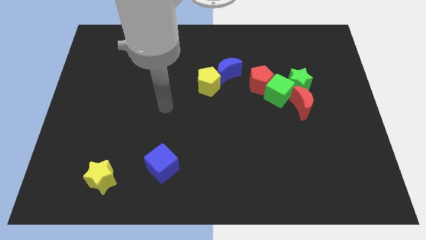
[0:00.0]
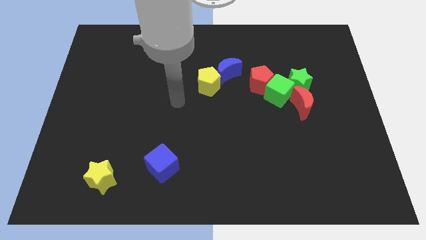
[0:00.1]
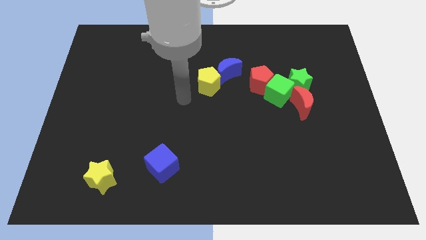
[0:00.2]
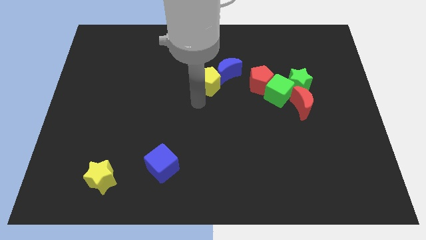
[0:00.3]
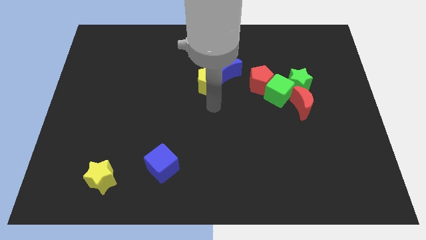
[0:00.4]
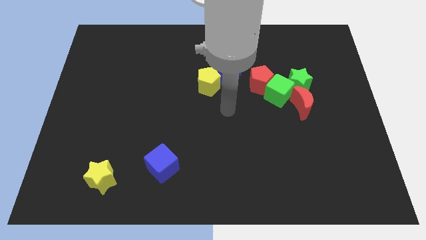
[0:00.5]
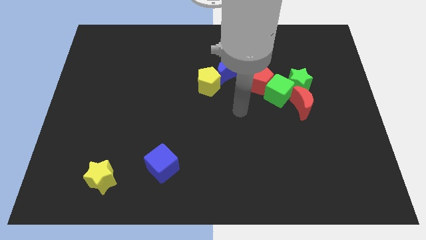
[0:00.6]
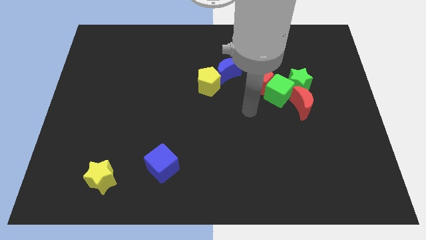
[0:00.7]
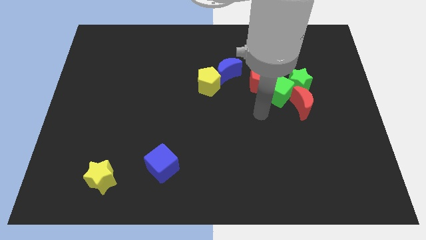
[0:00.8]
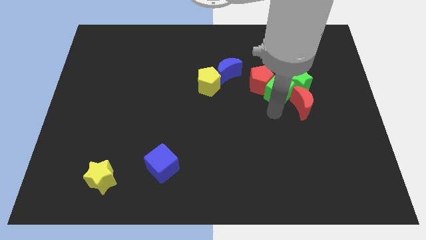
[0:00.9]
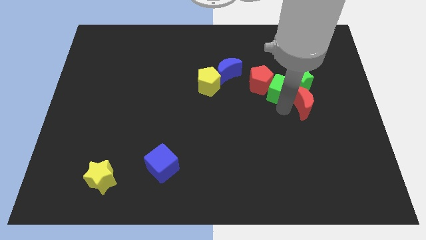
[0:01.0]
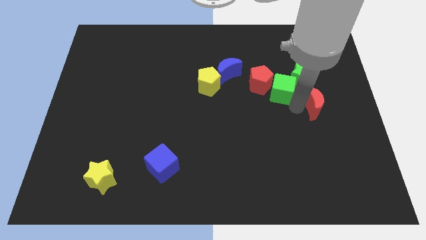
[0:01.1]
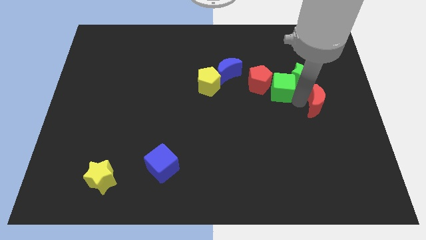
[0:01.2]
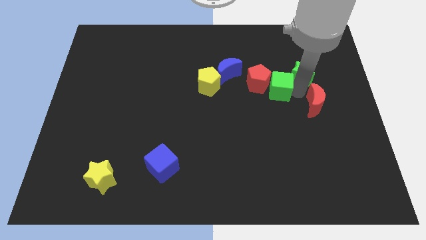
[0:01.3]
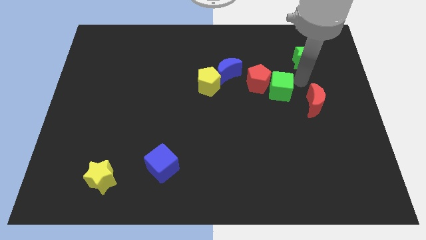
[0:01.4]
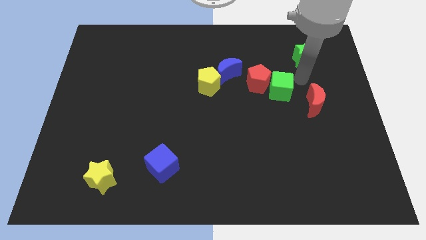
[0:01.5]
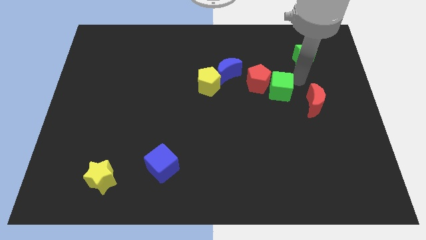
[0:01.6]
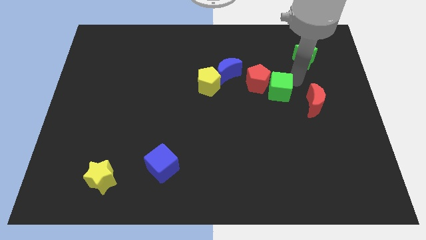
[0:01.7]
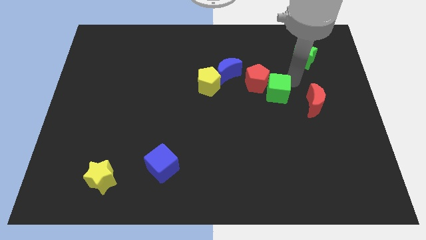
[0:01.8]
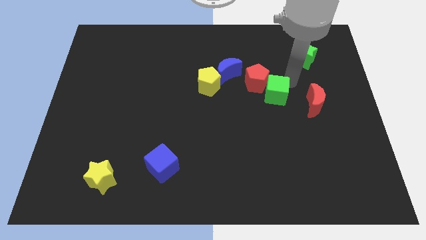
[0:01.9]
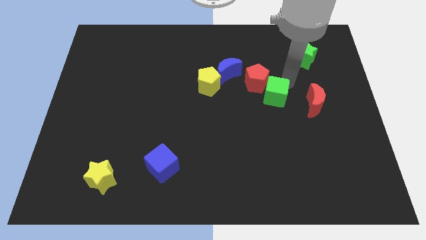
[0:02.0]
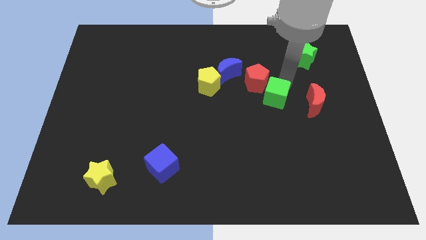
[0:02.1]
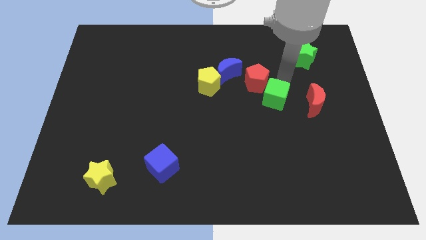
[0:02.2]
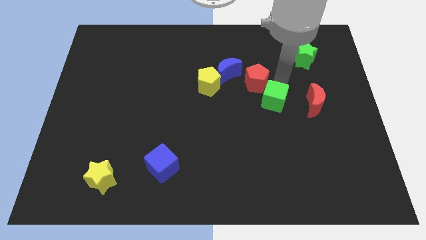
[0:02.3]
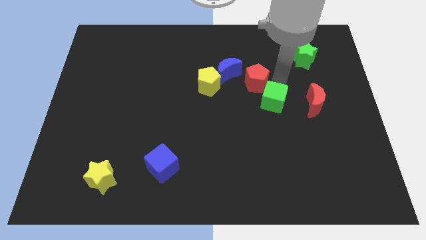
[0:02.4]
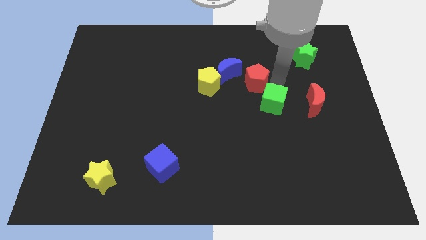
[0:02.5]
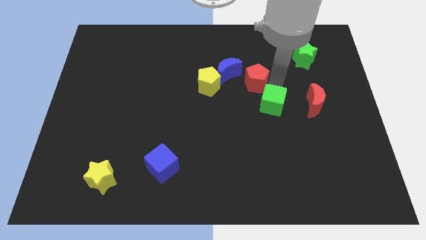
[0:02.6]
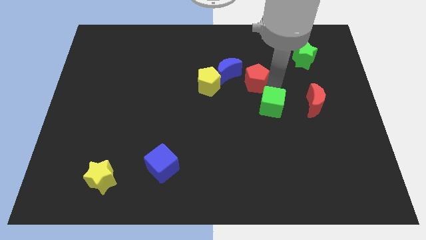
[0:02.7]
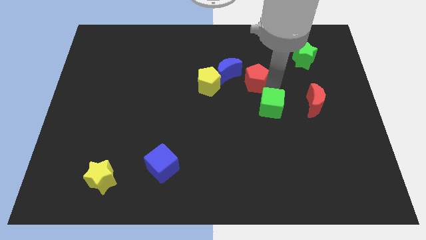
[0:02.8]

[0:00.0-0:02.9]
separate the green cube from the red pentagon, green star, and red moon

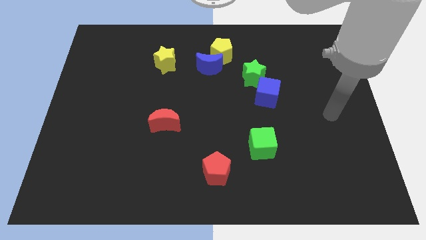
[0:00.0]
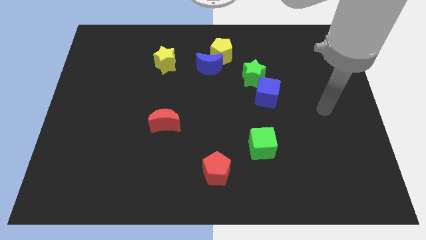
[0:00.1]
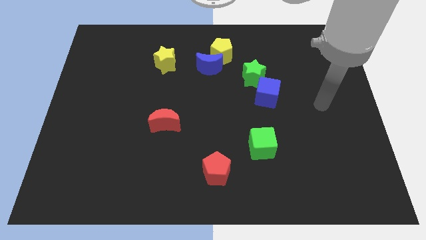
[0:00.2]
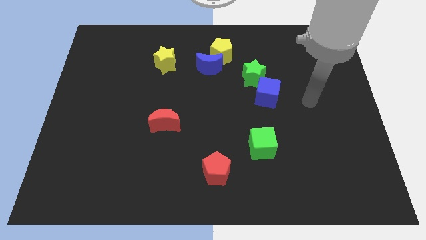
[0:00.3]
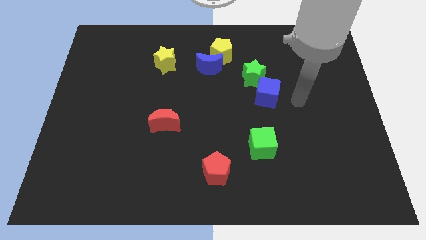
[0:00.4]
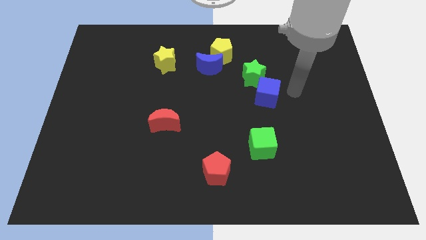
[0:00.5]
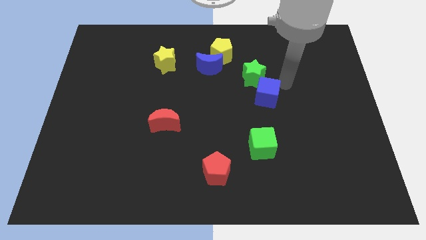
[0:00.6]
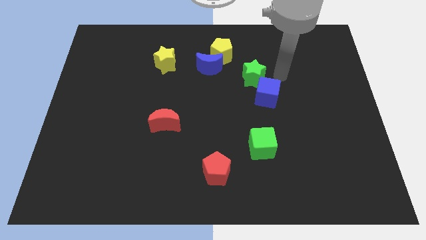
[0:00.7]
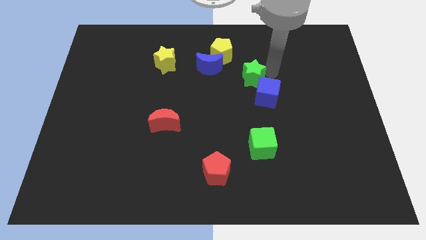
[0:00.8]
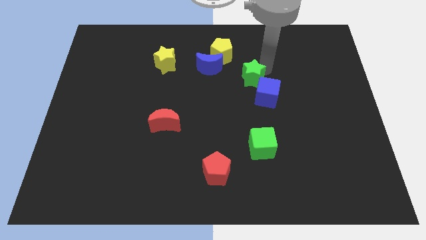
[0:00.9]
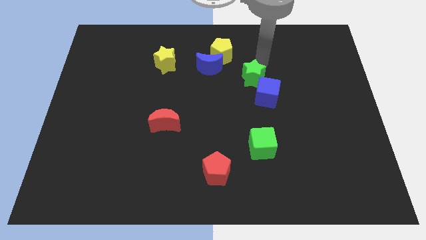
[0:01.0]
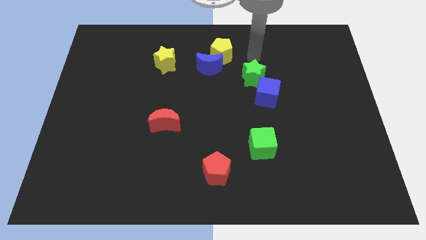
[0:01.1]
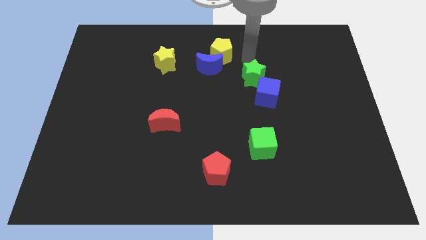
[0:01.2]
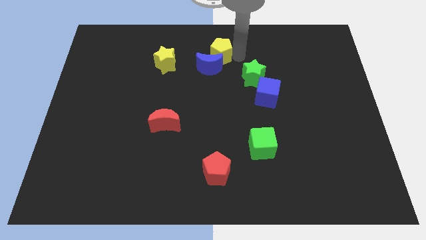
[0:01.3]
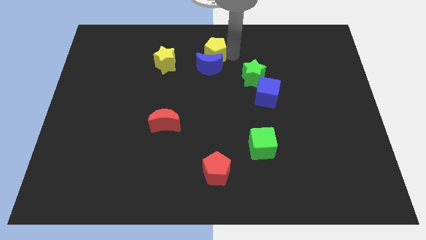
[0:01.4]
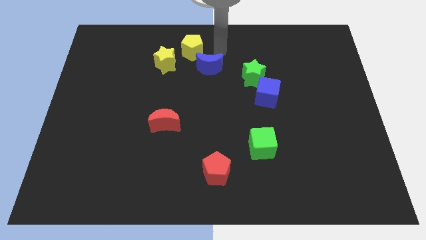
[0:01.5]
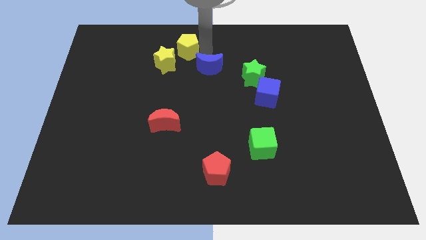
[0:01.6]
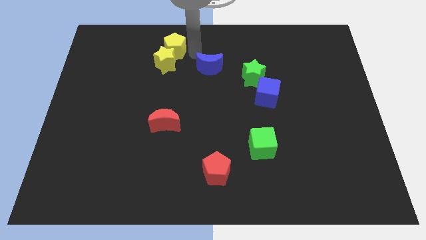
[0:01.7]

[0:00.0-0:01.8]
move the blue moon away from the yellow pentagon

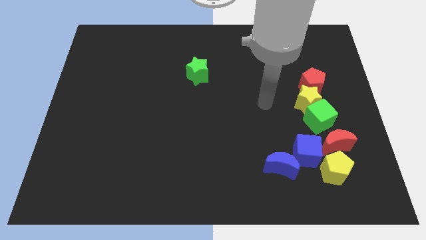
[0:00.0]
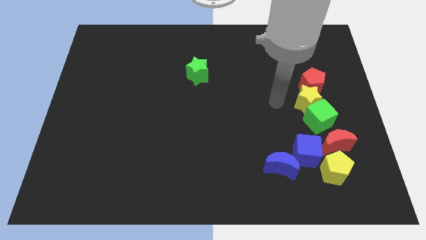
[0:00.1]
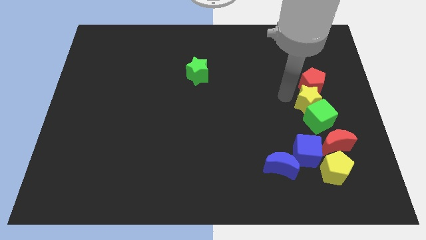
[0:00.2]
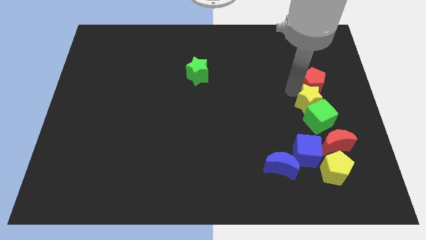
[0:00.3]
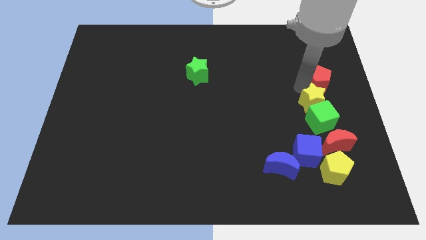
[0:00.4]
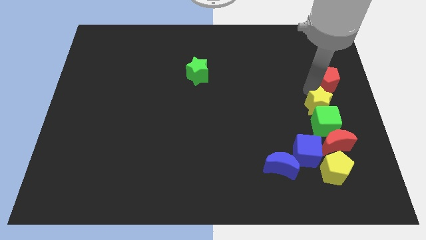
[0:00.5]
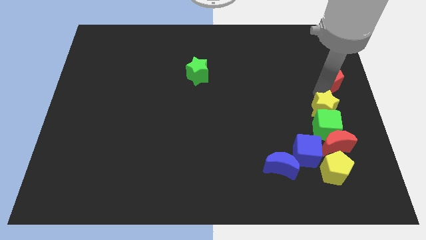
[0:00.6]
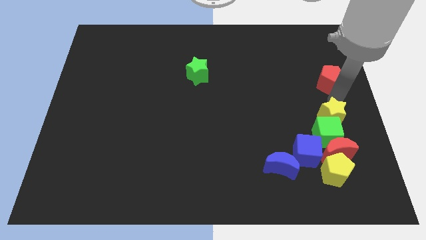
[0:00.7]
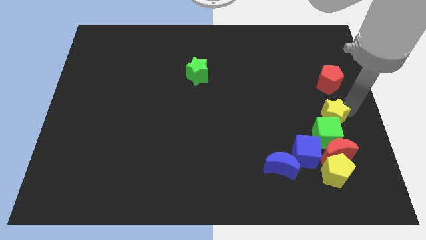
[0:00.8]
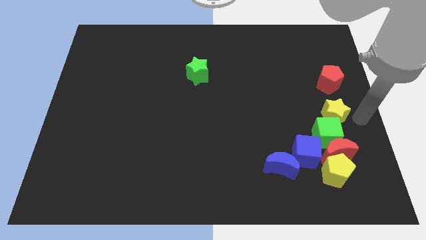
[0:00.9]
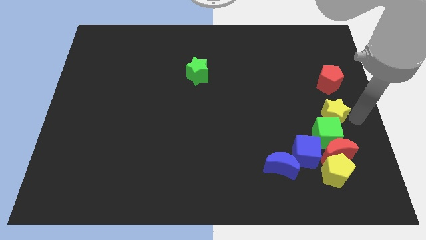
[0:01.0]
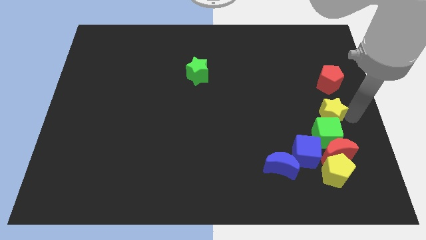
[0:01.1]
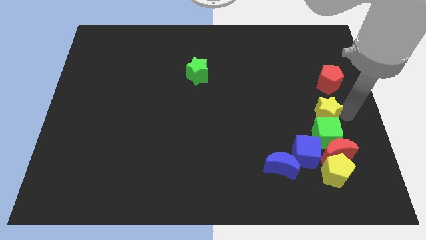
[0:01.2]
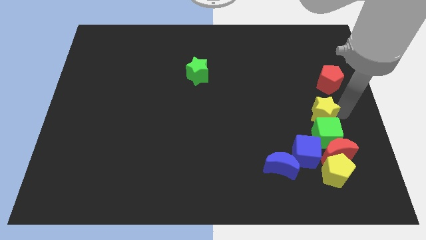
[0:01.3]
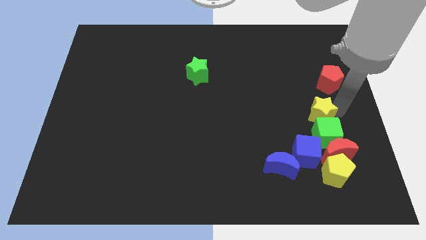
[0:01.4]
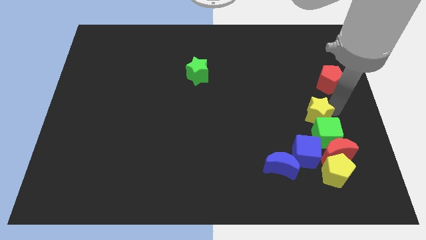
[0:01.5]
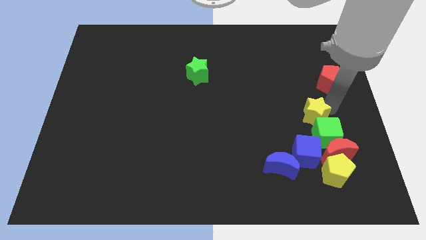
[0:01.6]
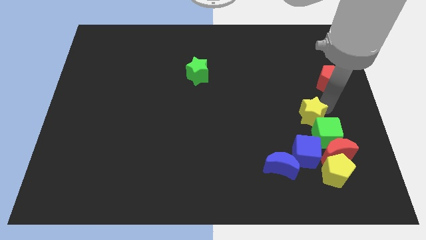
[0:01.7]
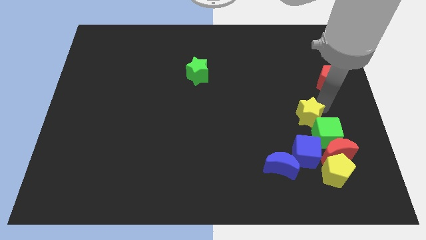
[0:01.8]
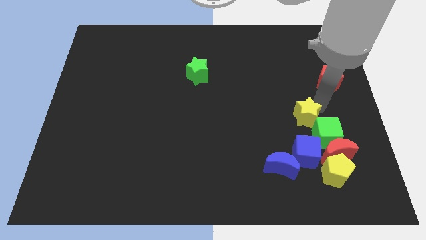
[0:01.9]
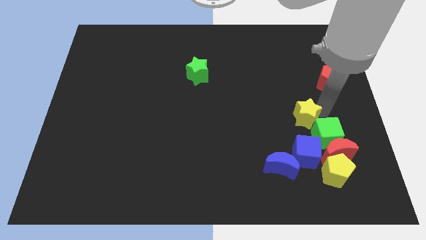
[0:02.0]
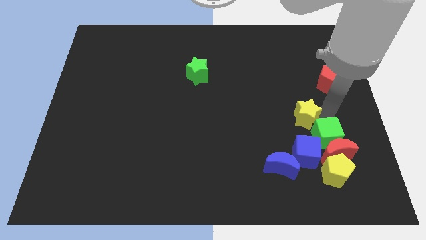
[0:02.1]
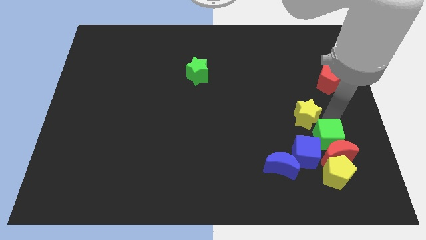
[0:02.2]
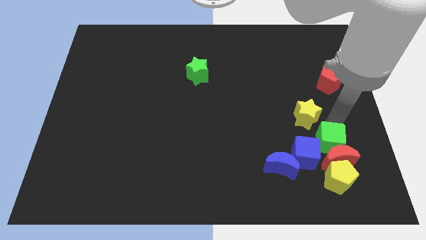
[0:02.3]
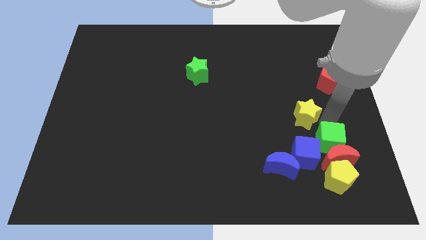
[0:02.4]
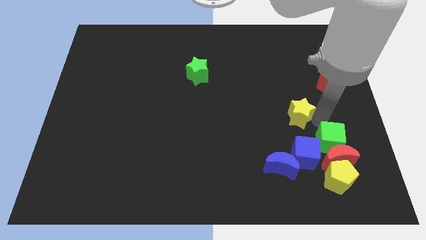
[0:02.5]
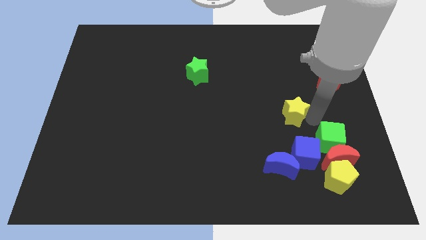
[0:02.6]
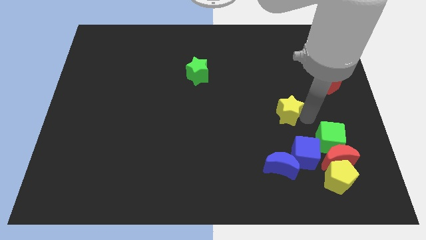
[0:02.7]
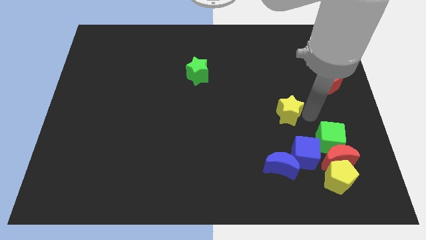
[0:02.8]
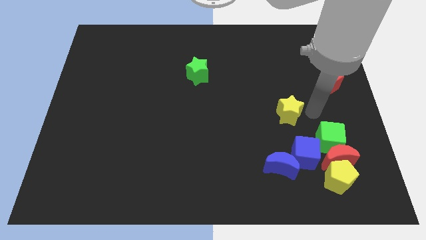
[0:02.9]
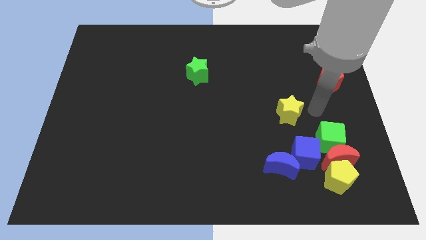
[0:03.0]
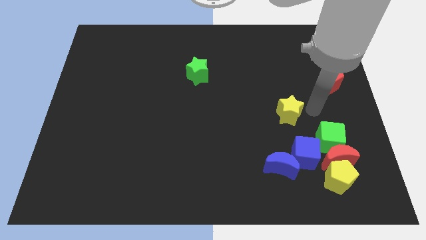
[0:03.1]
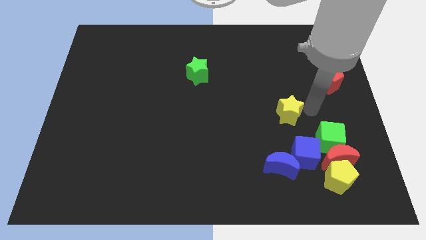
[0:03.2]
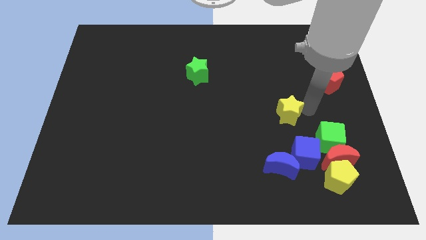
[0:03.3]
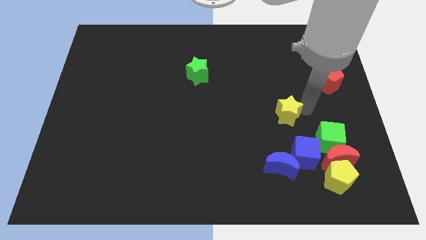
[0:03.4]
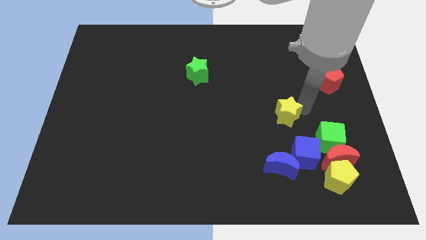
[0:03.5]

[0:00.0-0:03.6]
separate the yellow star from the green cube and red pentagon

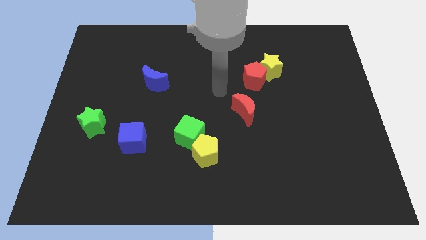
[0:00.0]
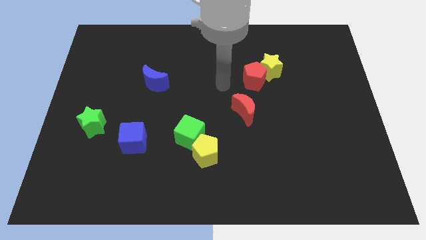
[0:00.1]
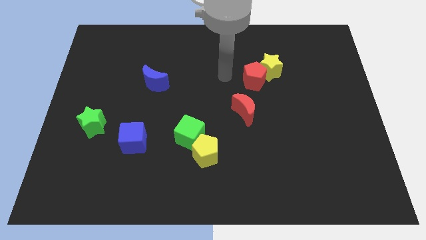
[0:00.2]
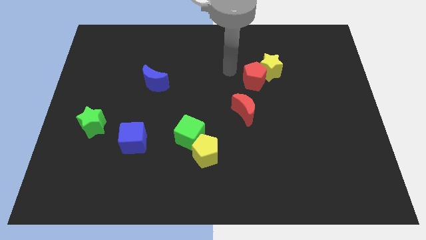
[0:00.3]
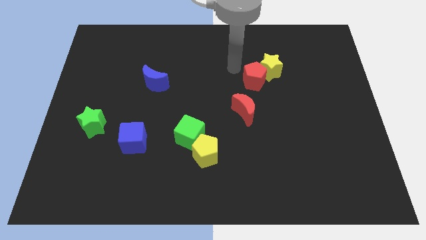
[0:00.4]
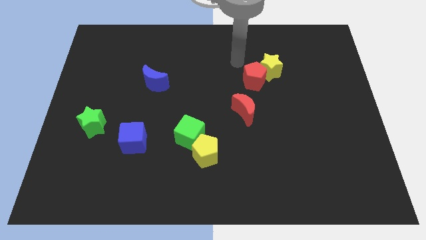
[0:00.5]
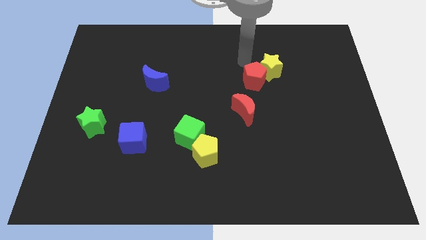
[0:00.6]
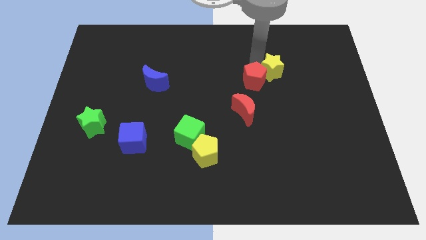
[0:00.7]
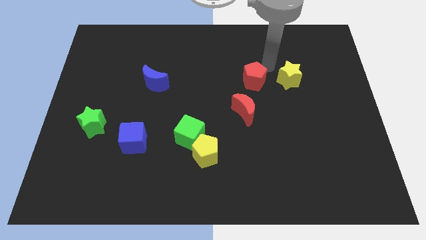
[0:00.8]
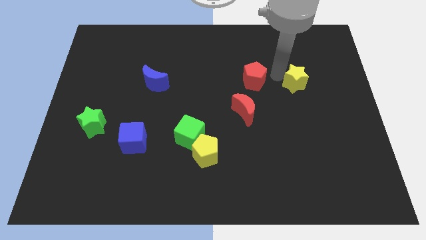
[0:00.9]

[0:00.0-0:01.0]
separate the red pentagon from the yellow star
